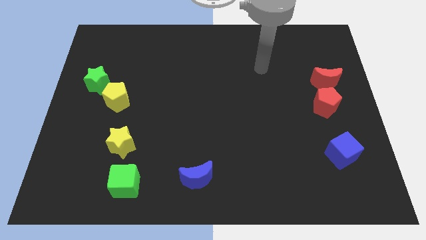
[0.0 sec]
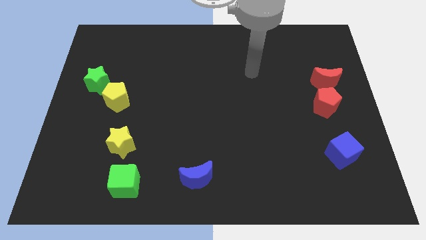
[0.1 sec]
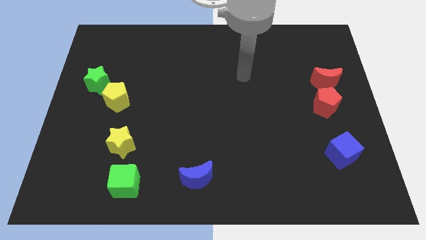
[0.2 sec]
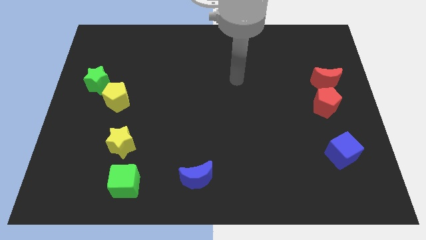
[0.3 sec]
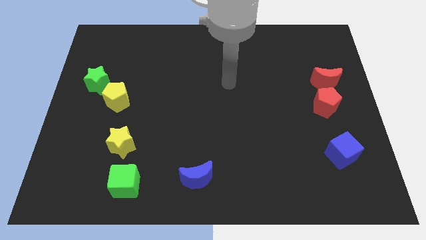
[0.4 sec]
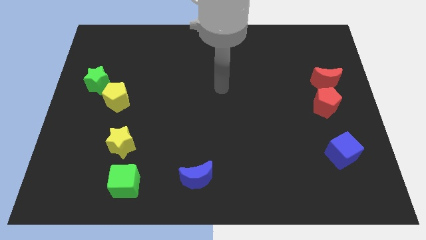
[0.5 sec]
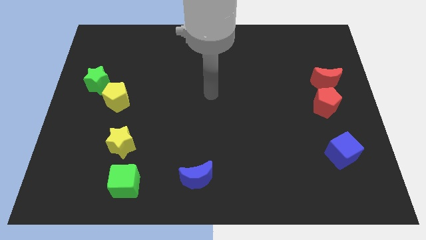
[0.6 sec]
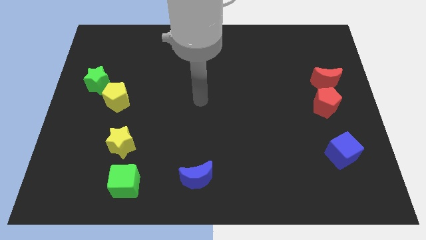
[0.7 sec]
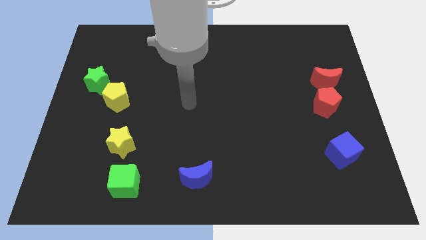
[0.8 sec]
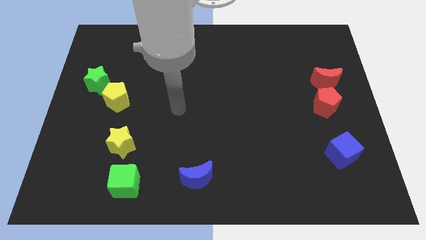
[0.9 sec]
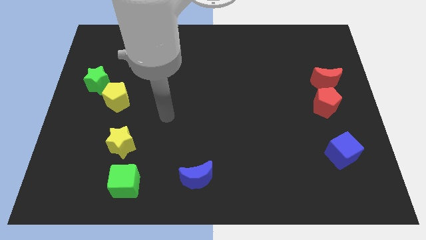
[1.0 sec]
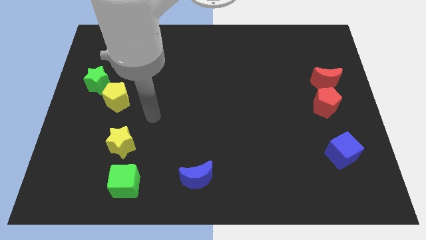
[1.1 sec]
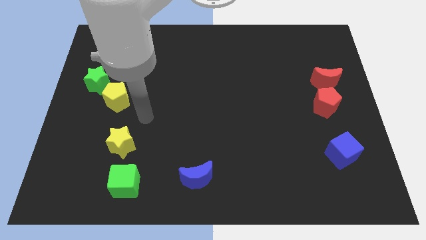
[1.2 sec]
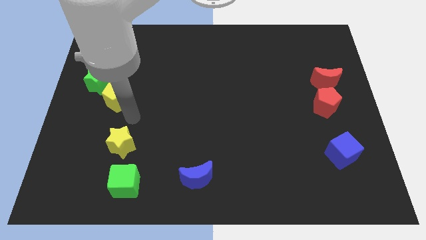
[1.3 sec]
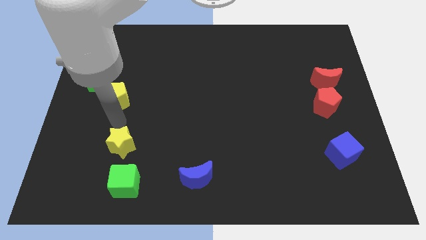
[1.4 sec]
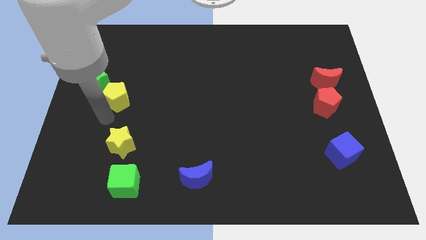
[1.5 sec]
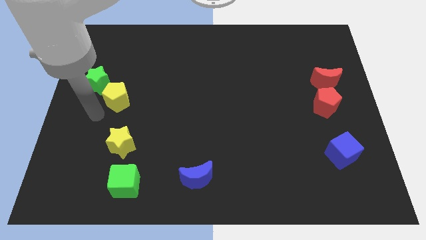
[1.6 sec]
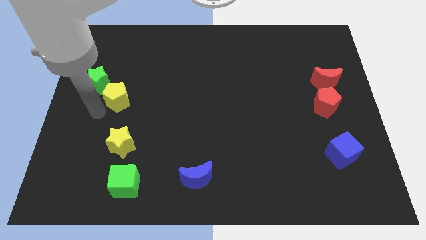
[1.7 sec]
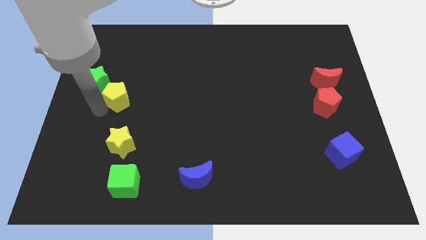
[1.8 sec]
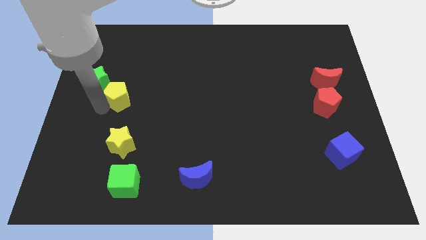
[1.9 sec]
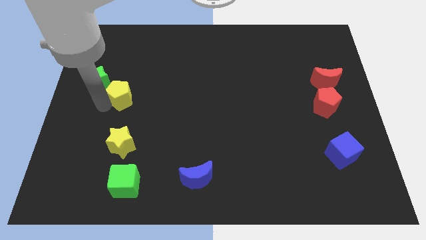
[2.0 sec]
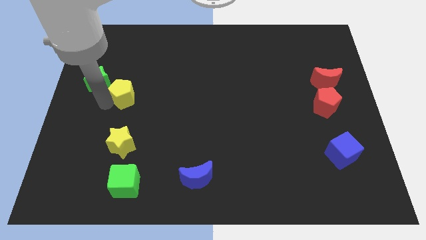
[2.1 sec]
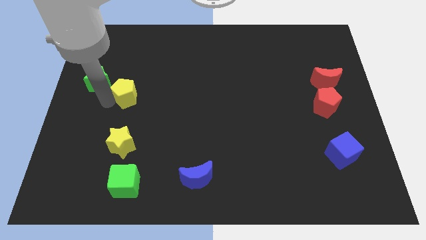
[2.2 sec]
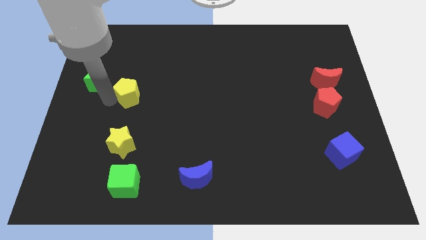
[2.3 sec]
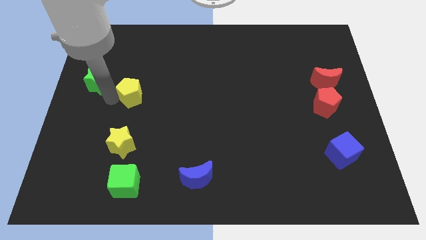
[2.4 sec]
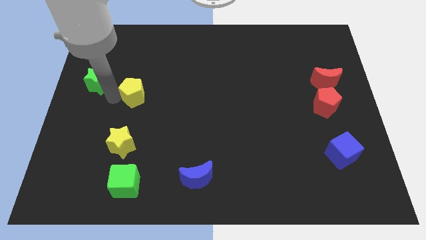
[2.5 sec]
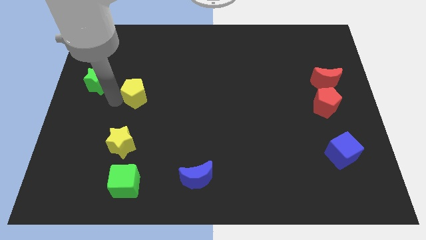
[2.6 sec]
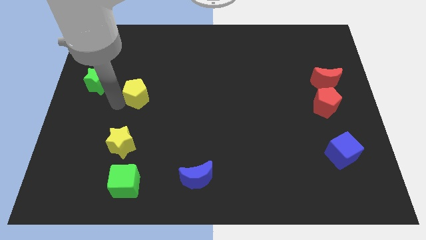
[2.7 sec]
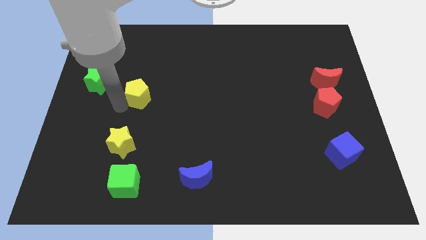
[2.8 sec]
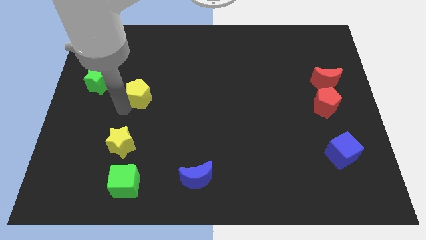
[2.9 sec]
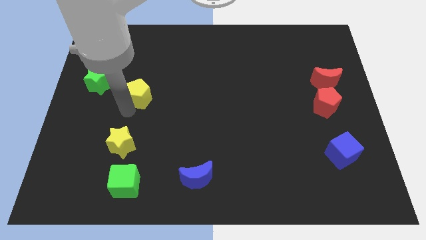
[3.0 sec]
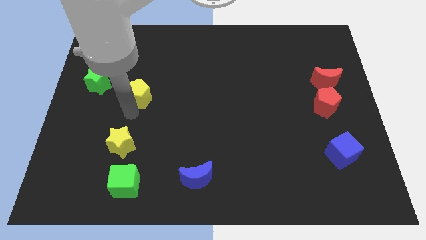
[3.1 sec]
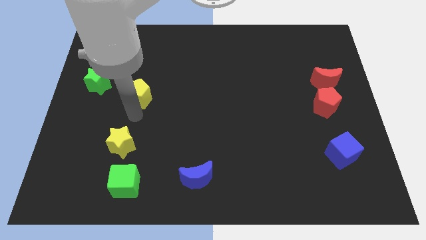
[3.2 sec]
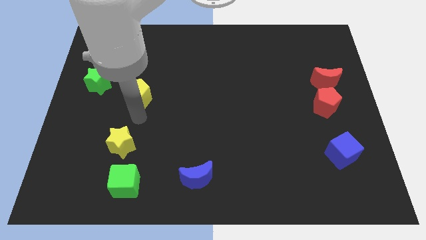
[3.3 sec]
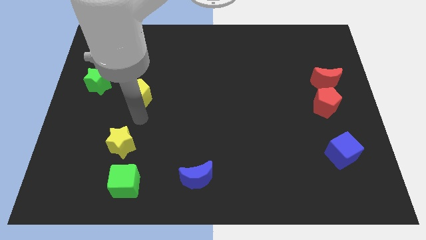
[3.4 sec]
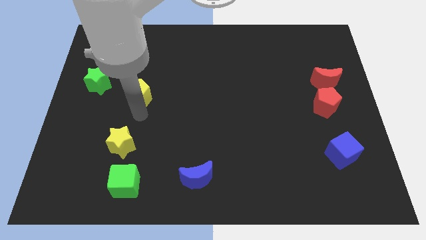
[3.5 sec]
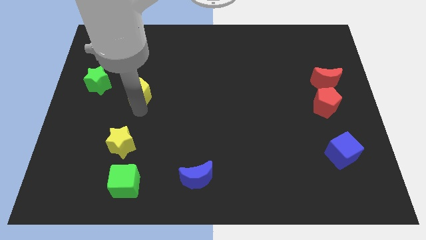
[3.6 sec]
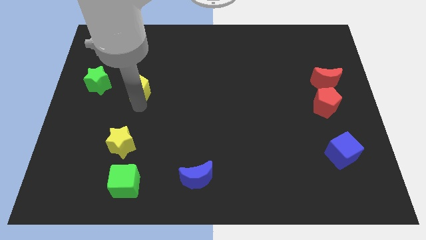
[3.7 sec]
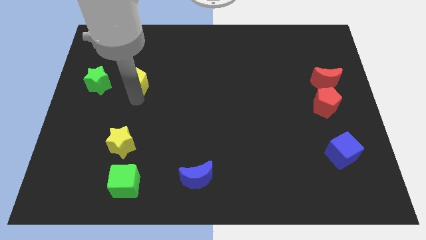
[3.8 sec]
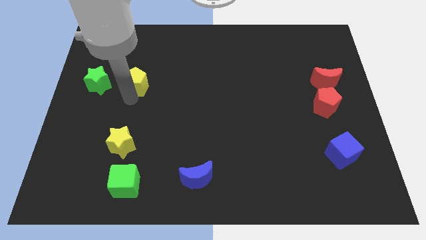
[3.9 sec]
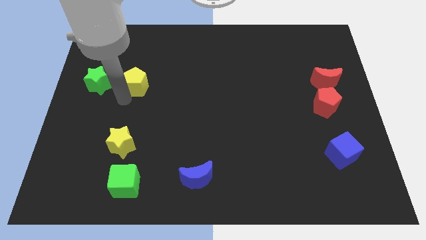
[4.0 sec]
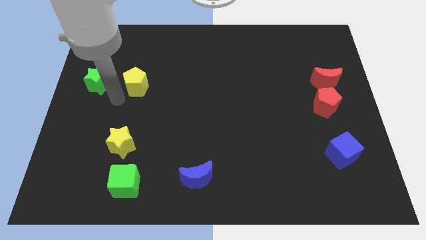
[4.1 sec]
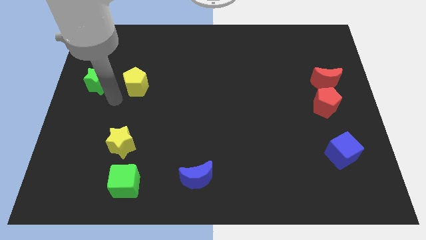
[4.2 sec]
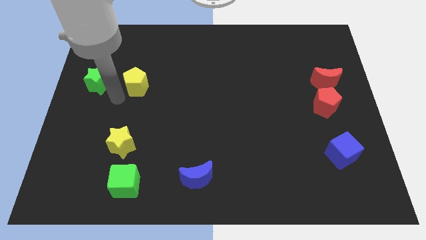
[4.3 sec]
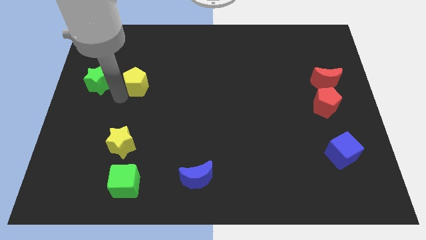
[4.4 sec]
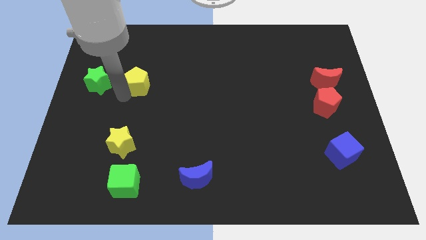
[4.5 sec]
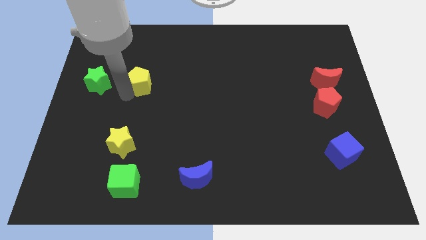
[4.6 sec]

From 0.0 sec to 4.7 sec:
move the yellow pentagon a bit upwards and then right

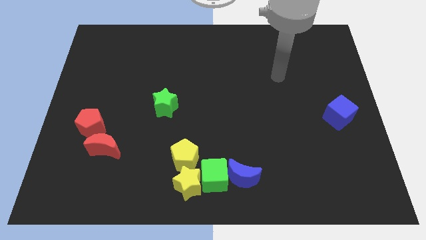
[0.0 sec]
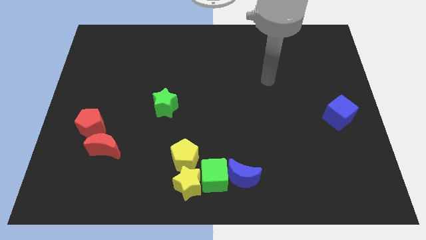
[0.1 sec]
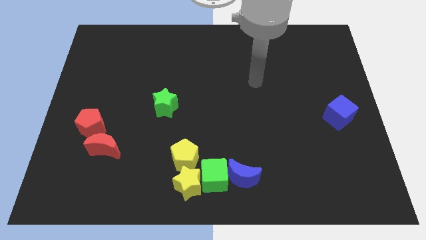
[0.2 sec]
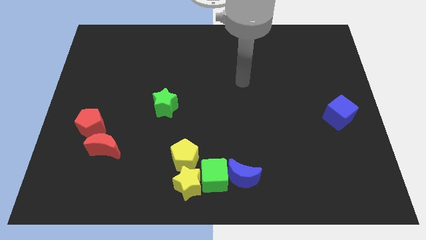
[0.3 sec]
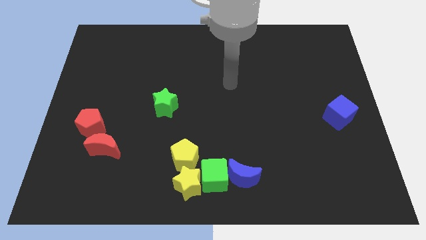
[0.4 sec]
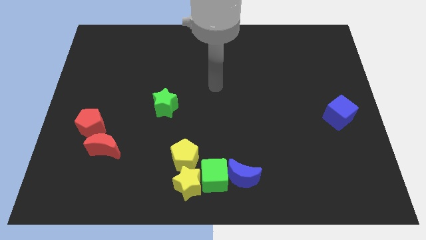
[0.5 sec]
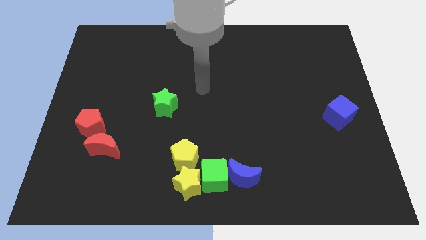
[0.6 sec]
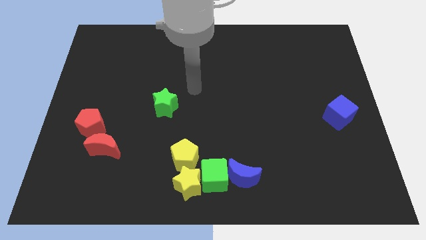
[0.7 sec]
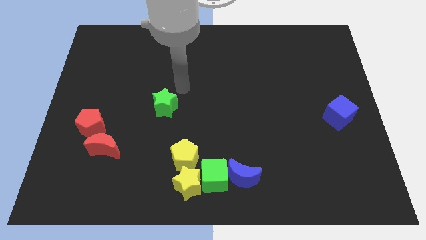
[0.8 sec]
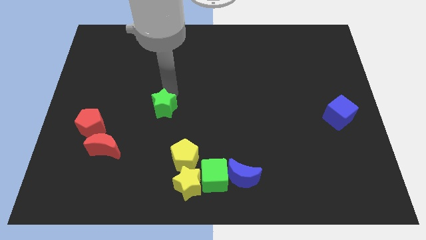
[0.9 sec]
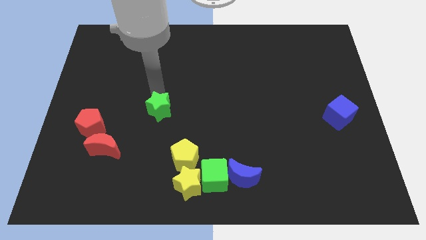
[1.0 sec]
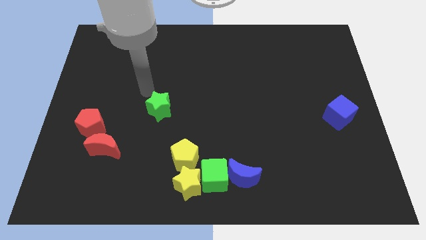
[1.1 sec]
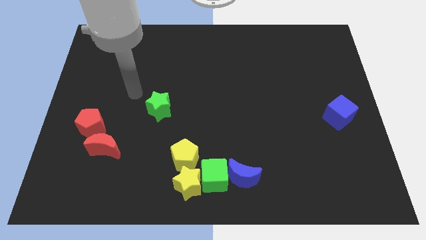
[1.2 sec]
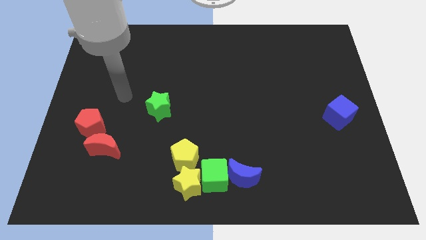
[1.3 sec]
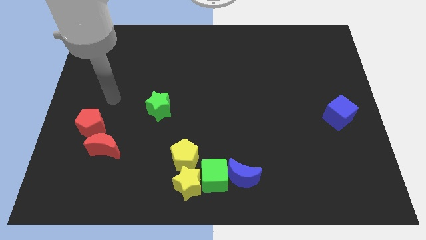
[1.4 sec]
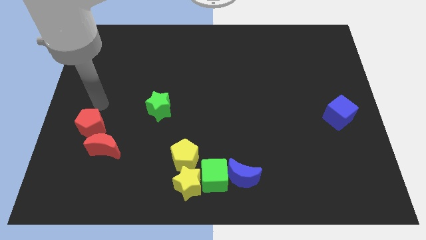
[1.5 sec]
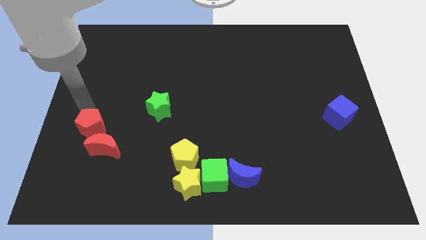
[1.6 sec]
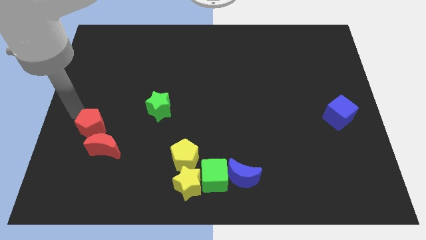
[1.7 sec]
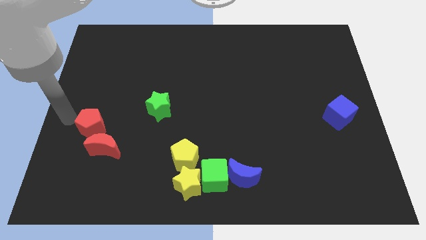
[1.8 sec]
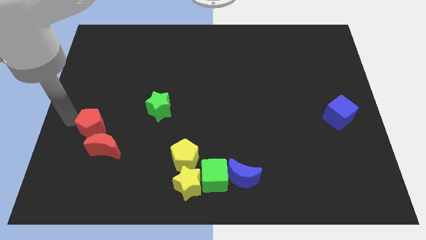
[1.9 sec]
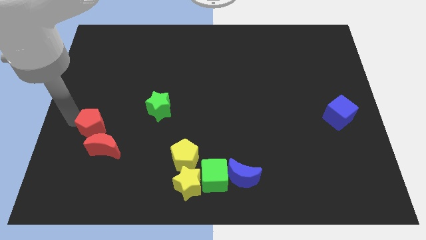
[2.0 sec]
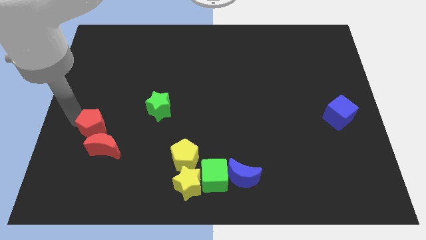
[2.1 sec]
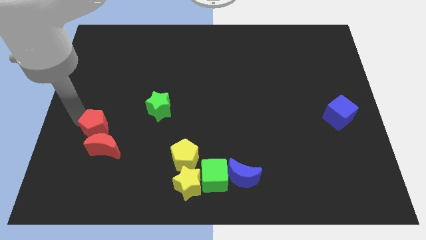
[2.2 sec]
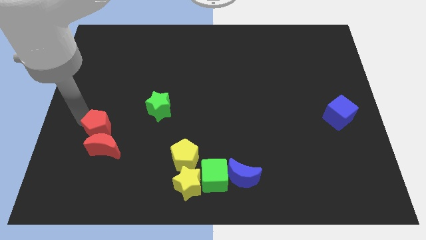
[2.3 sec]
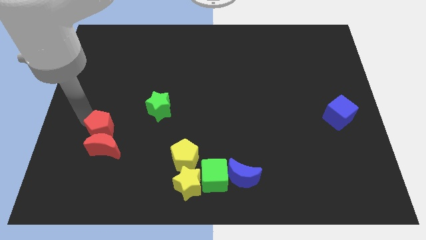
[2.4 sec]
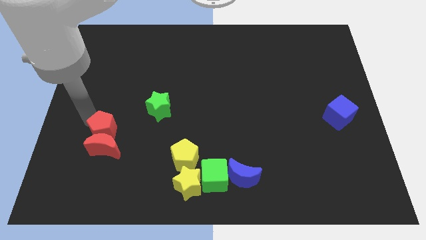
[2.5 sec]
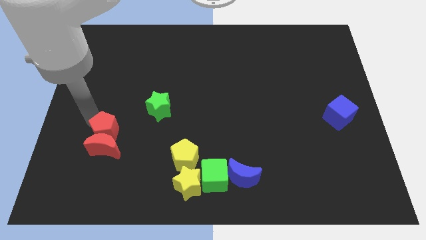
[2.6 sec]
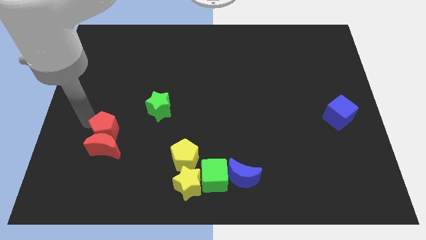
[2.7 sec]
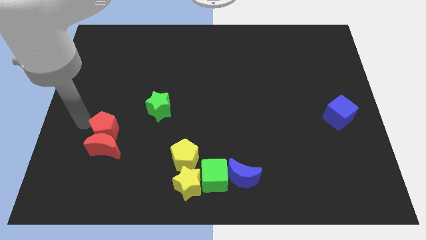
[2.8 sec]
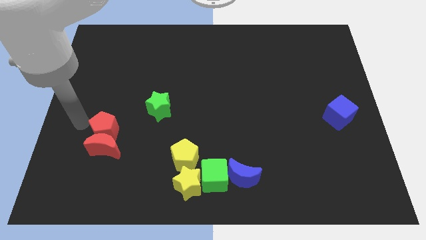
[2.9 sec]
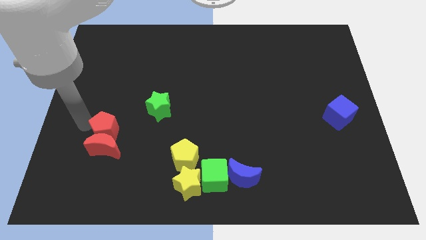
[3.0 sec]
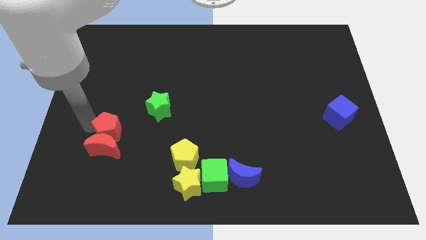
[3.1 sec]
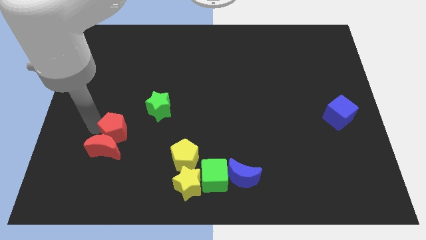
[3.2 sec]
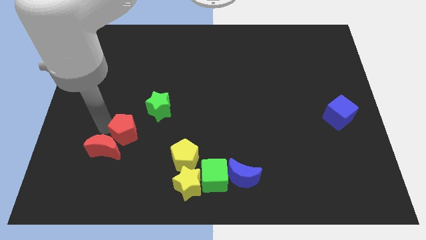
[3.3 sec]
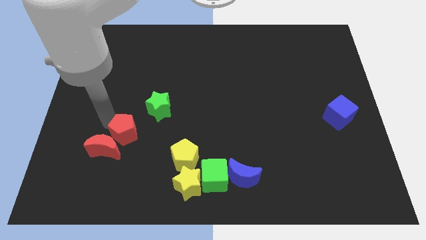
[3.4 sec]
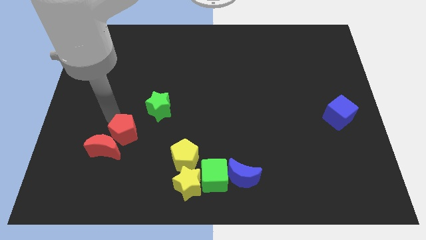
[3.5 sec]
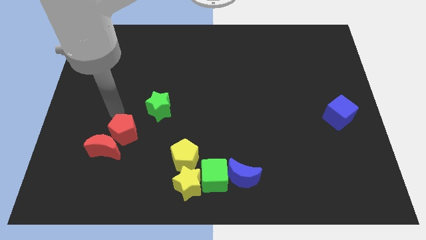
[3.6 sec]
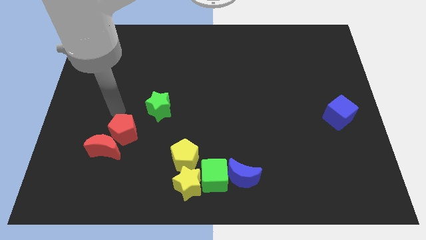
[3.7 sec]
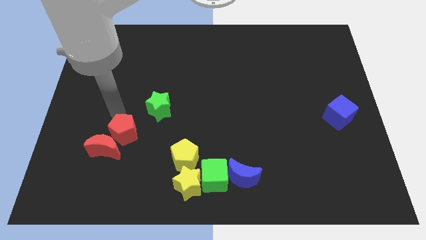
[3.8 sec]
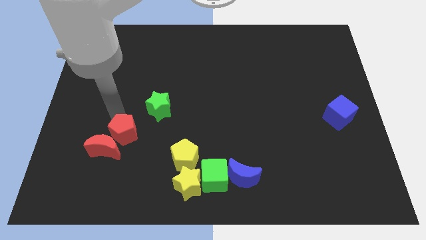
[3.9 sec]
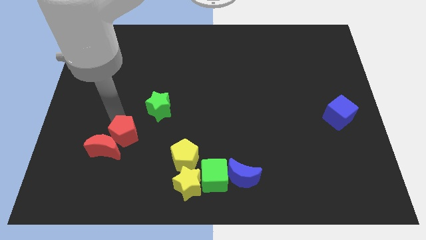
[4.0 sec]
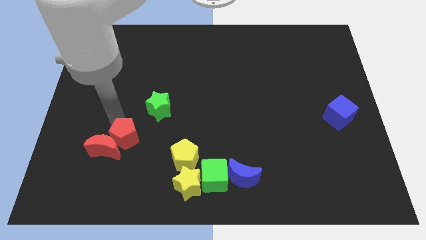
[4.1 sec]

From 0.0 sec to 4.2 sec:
move the red pentagon slightly diagonally downwards and right
